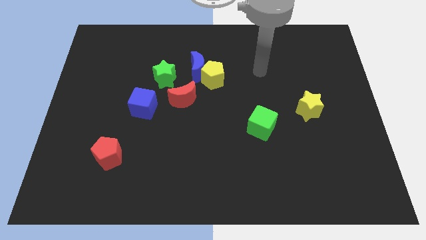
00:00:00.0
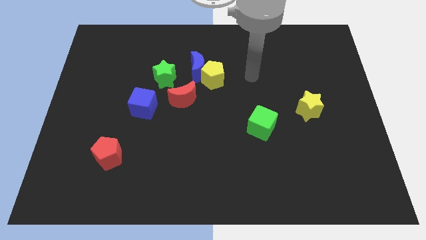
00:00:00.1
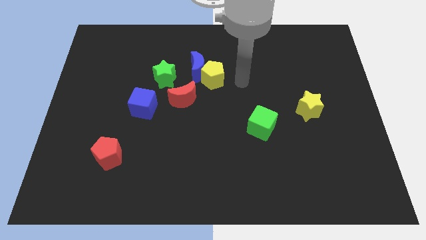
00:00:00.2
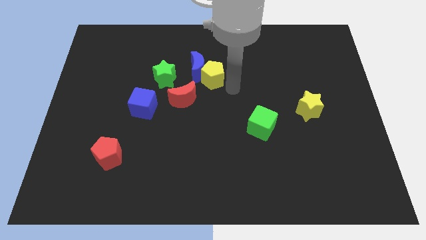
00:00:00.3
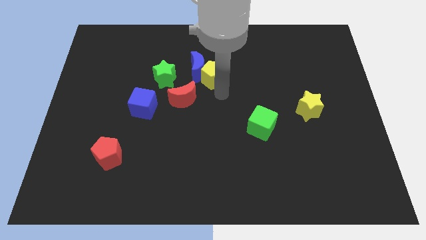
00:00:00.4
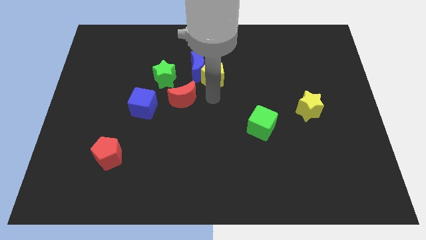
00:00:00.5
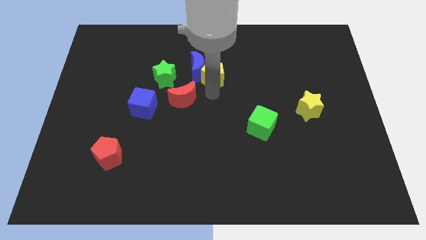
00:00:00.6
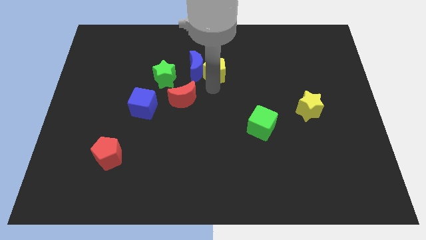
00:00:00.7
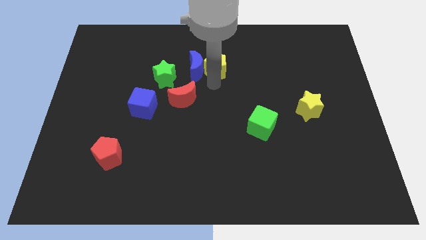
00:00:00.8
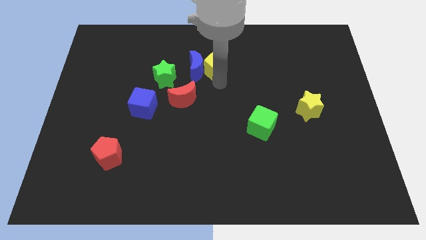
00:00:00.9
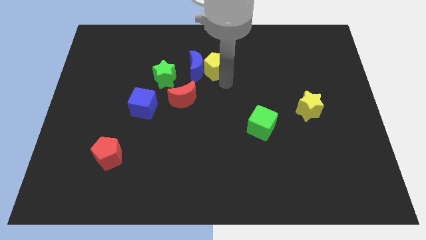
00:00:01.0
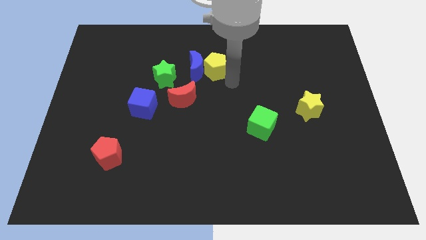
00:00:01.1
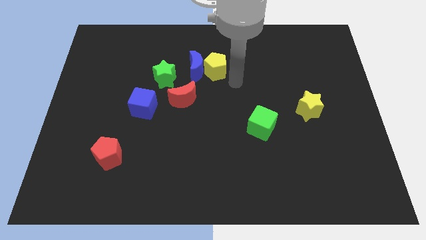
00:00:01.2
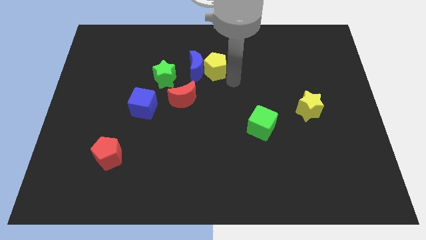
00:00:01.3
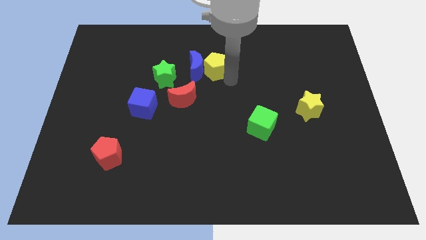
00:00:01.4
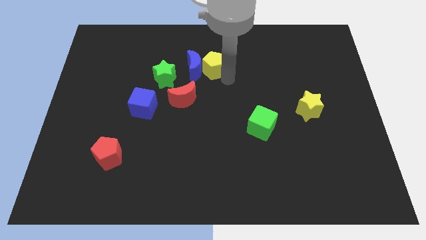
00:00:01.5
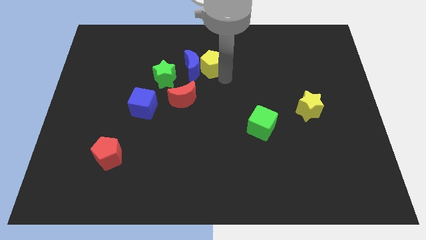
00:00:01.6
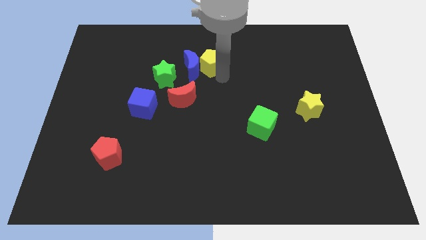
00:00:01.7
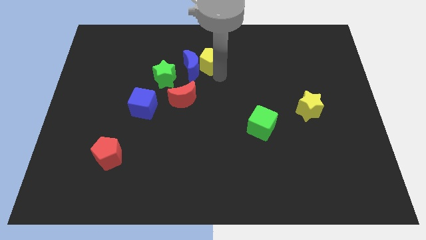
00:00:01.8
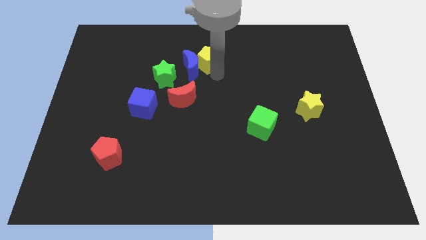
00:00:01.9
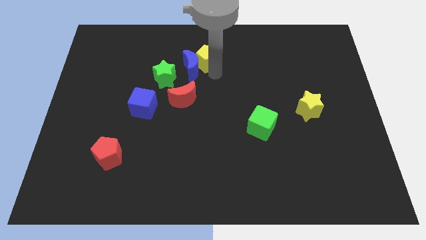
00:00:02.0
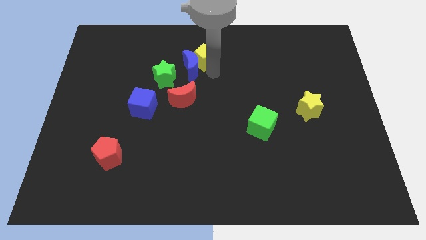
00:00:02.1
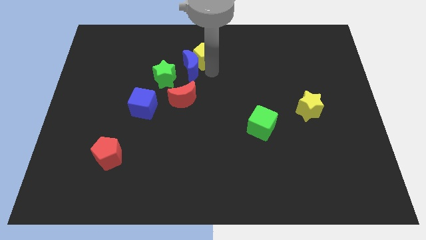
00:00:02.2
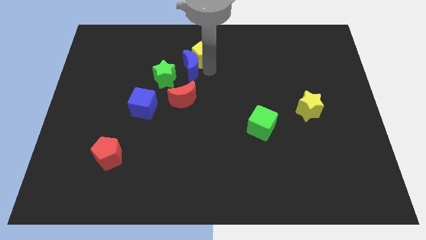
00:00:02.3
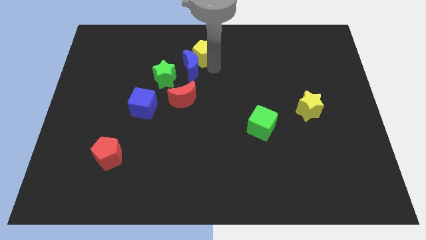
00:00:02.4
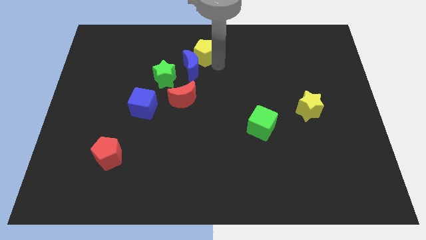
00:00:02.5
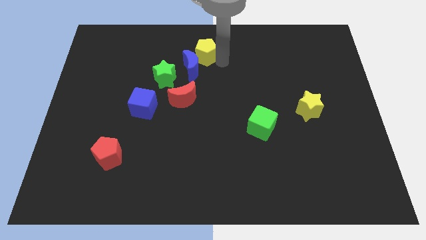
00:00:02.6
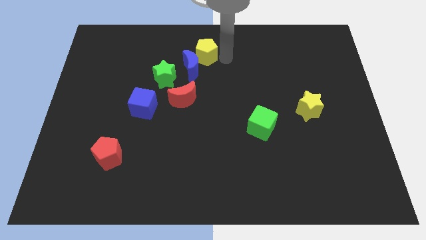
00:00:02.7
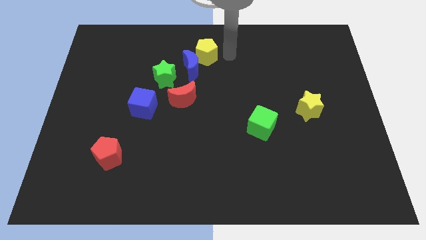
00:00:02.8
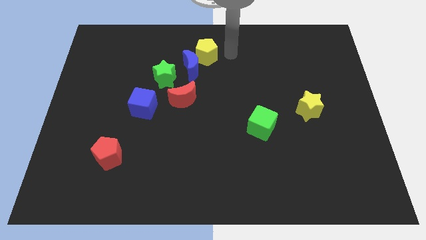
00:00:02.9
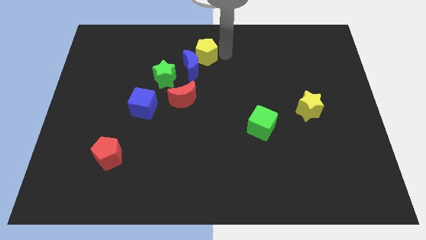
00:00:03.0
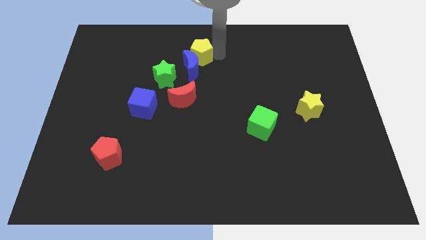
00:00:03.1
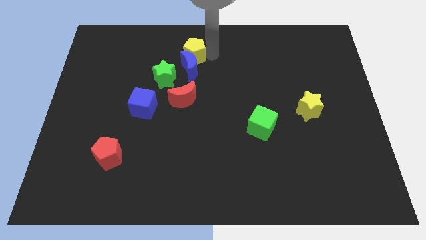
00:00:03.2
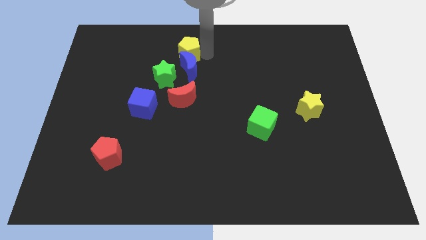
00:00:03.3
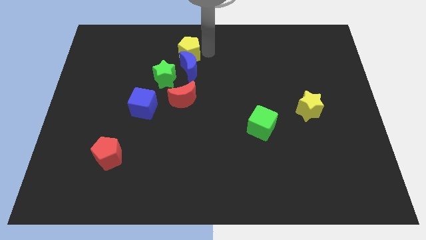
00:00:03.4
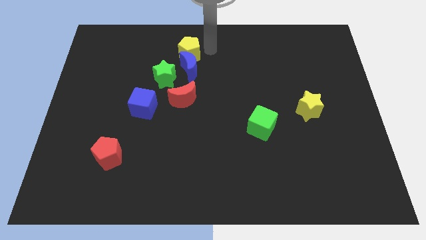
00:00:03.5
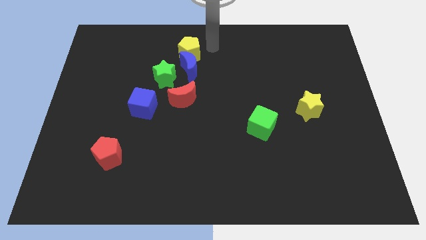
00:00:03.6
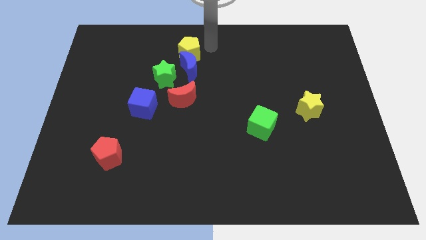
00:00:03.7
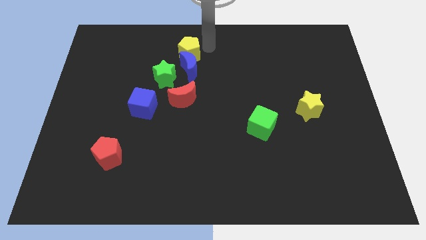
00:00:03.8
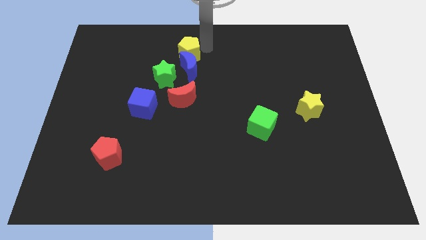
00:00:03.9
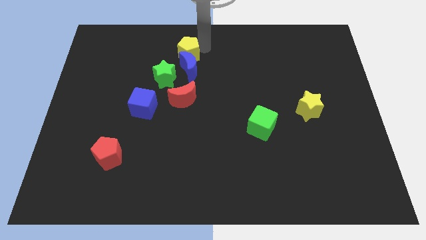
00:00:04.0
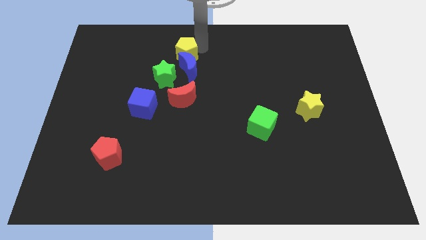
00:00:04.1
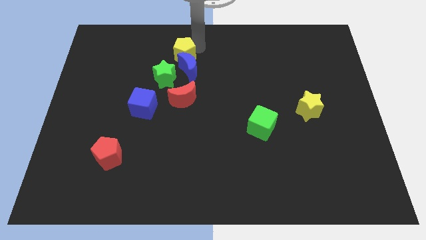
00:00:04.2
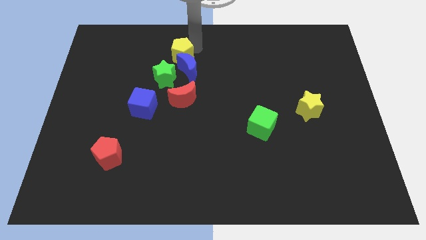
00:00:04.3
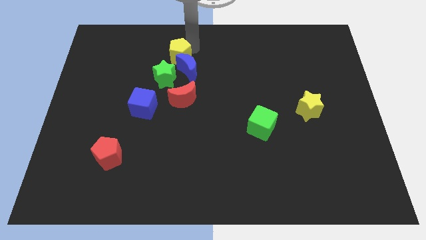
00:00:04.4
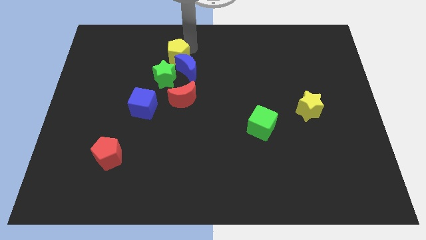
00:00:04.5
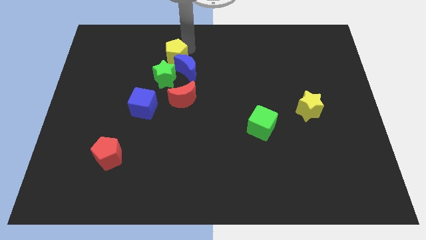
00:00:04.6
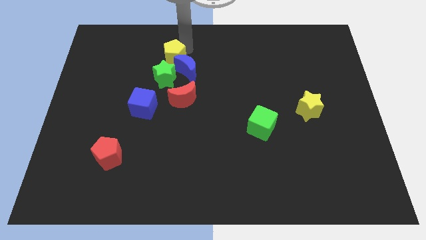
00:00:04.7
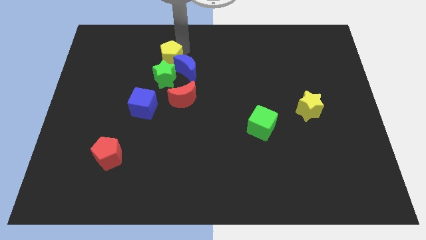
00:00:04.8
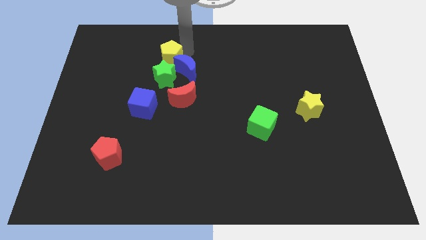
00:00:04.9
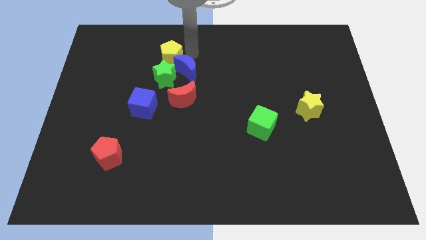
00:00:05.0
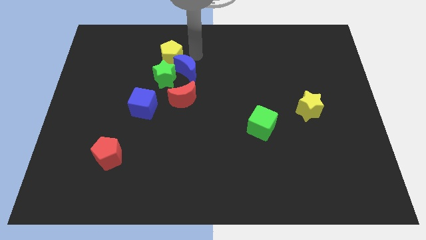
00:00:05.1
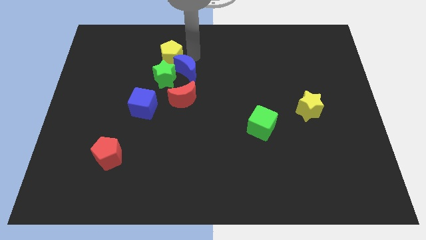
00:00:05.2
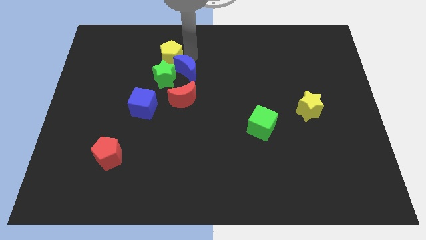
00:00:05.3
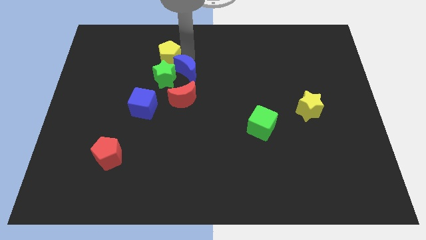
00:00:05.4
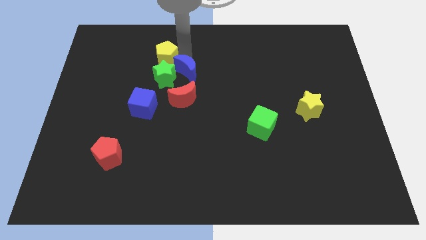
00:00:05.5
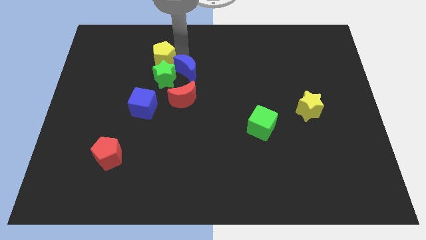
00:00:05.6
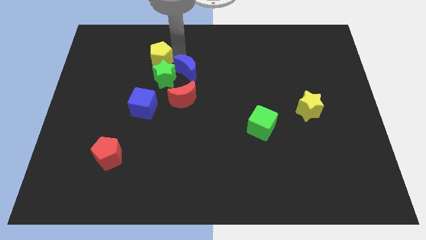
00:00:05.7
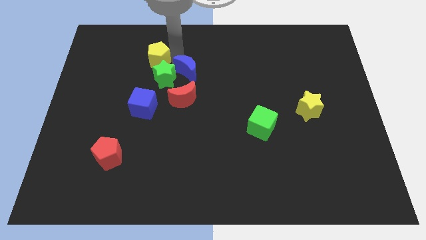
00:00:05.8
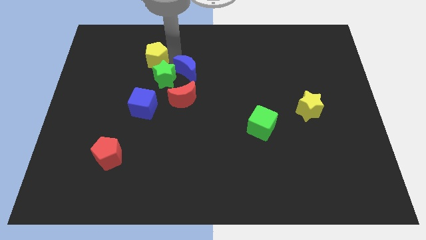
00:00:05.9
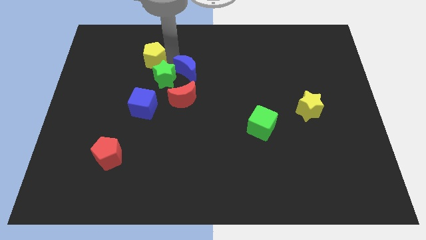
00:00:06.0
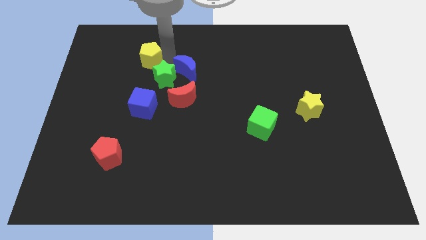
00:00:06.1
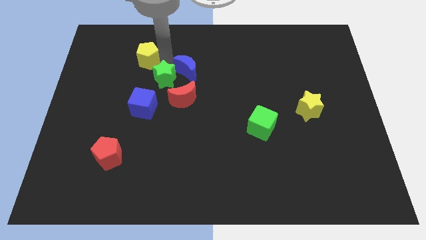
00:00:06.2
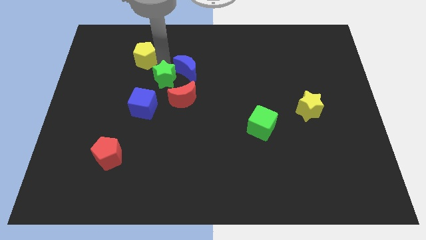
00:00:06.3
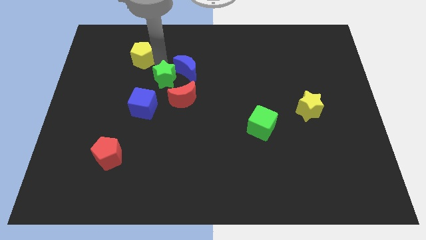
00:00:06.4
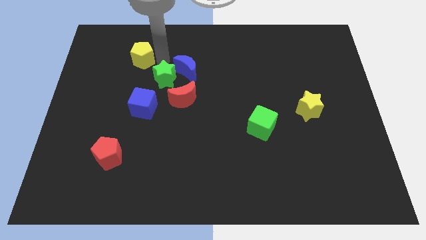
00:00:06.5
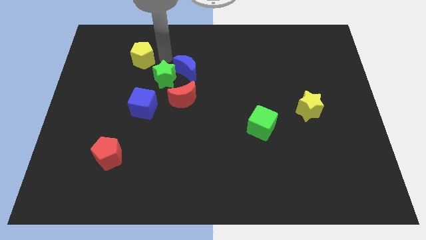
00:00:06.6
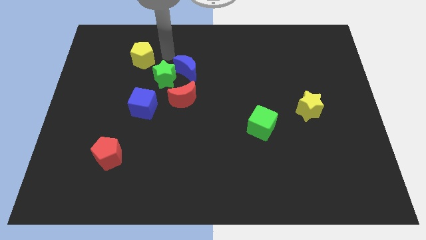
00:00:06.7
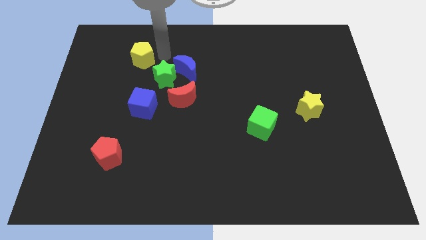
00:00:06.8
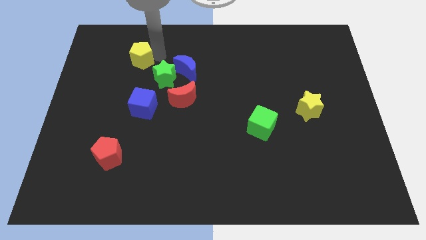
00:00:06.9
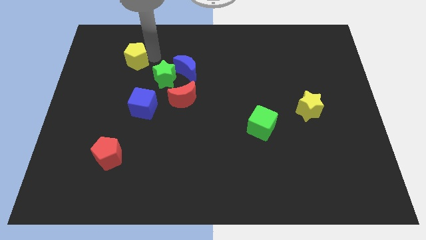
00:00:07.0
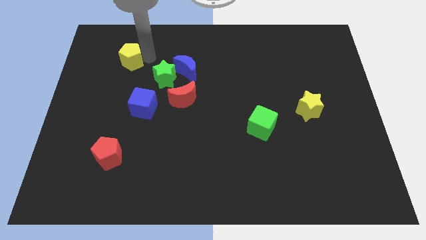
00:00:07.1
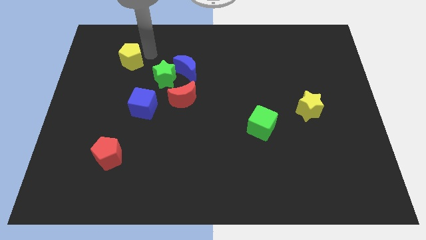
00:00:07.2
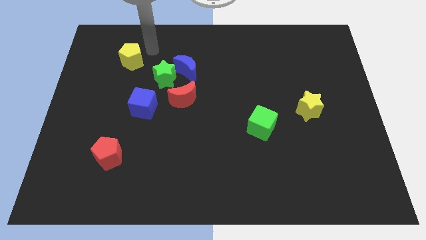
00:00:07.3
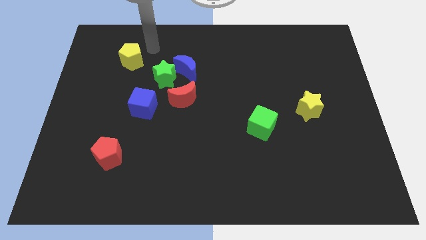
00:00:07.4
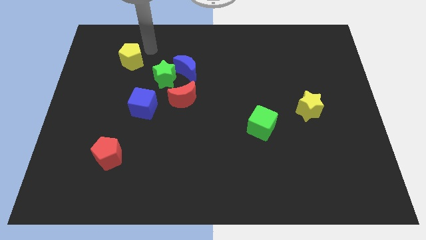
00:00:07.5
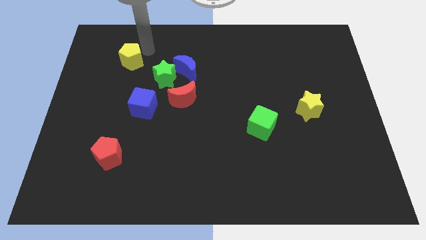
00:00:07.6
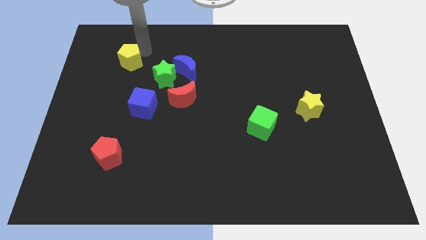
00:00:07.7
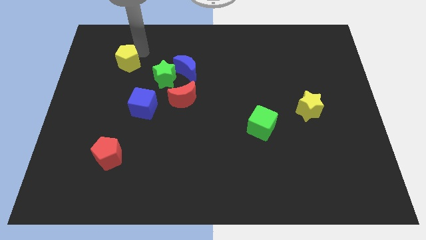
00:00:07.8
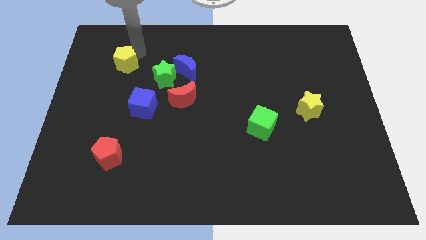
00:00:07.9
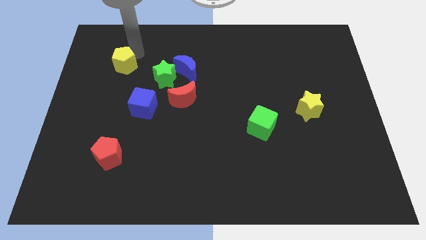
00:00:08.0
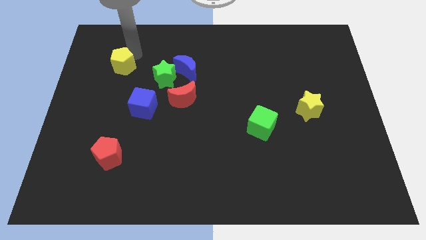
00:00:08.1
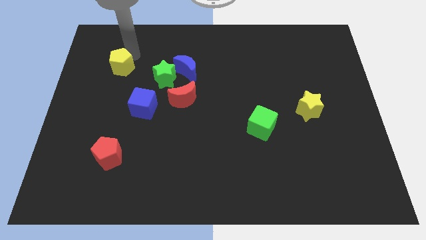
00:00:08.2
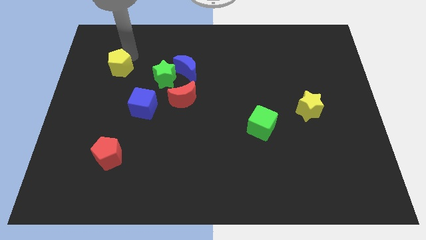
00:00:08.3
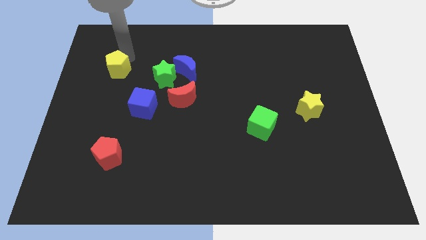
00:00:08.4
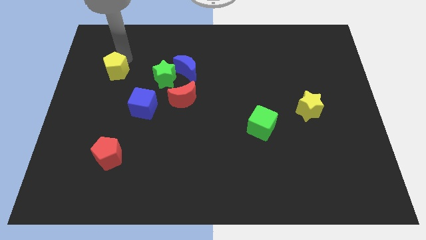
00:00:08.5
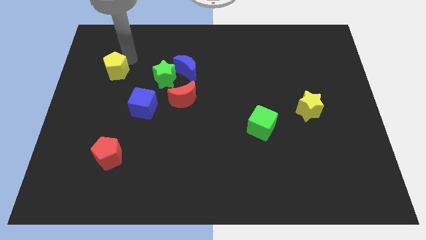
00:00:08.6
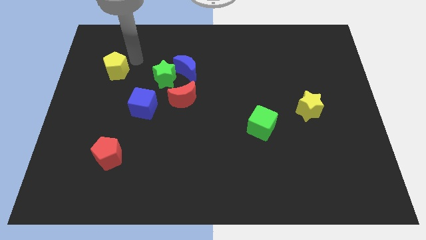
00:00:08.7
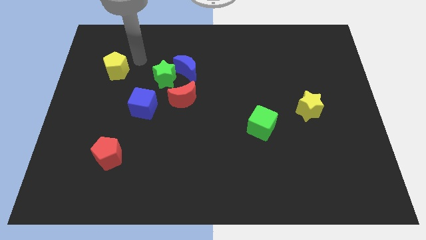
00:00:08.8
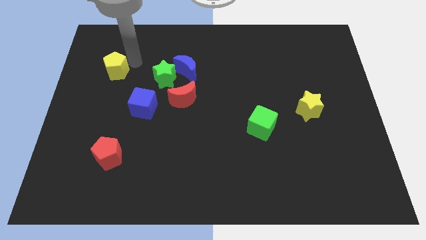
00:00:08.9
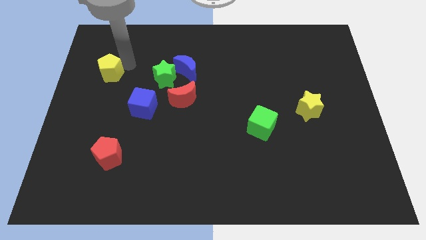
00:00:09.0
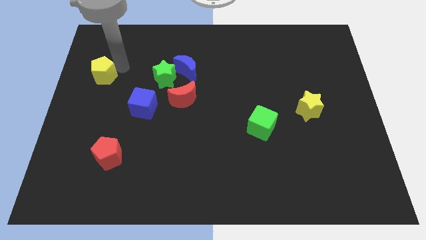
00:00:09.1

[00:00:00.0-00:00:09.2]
put the yellow pentagon to the center left
